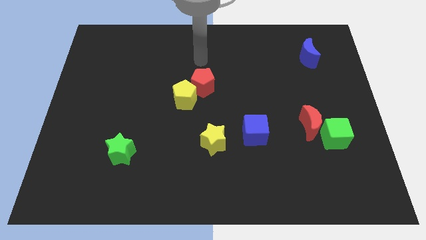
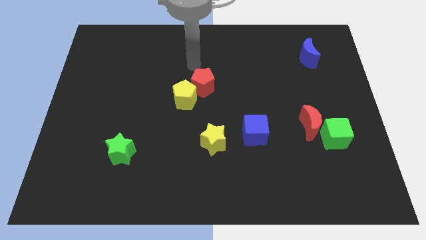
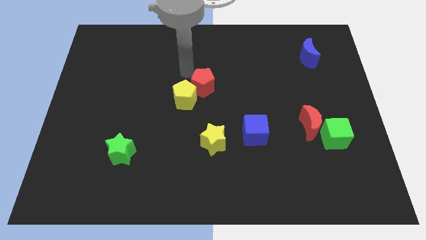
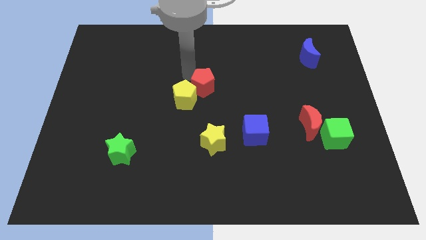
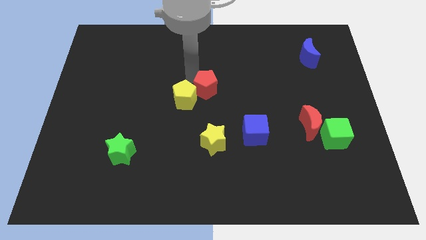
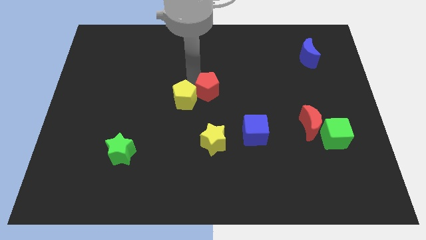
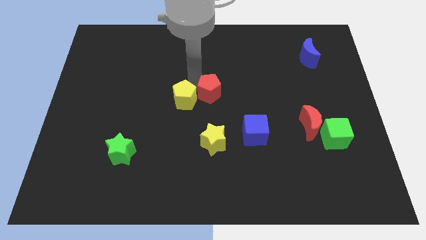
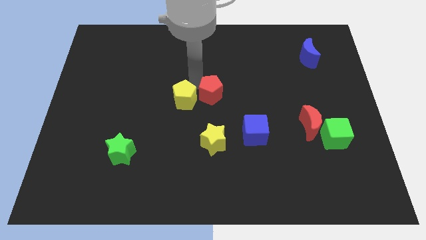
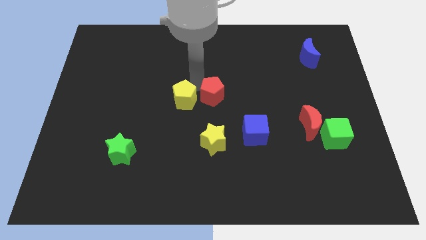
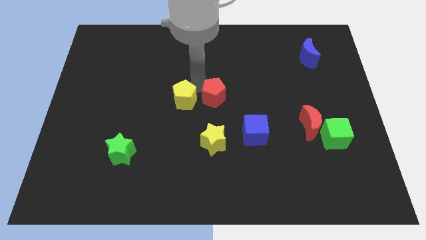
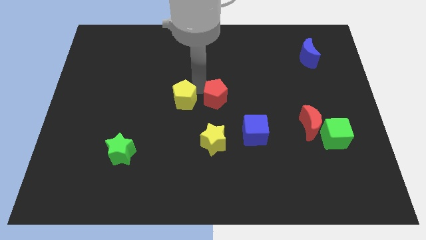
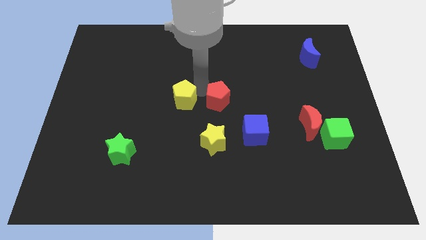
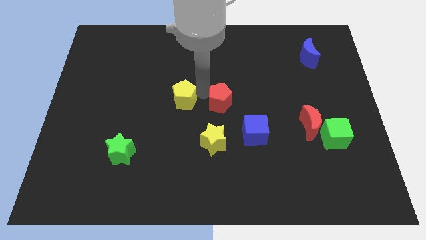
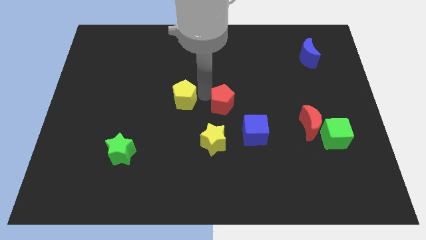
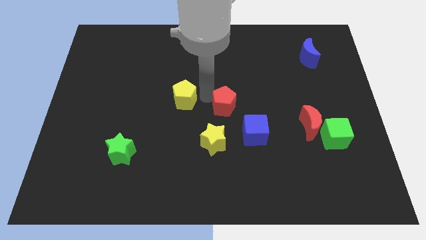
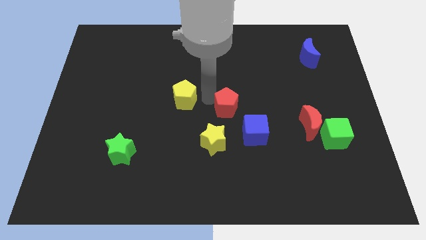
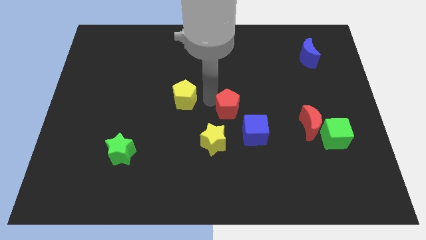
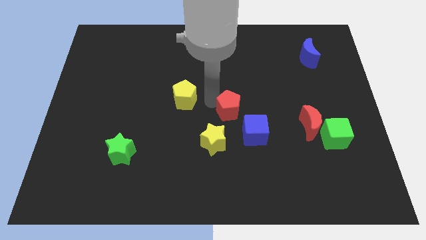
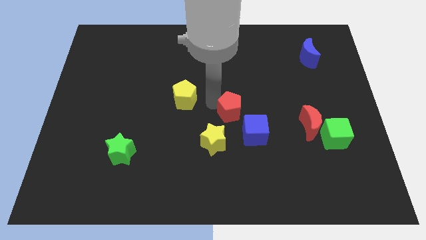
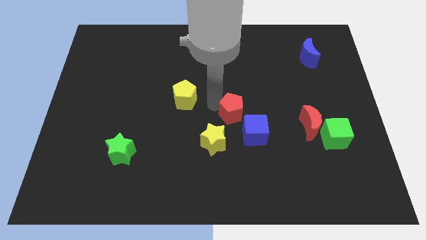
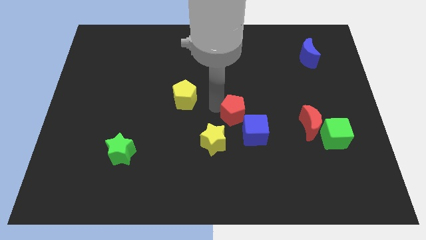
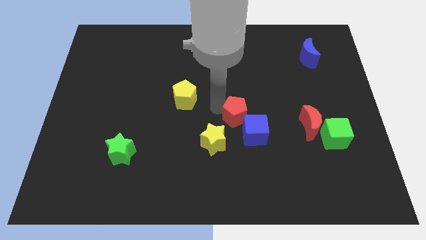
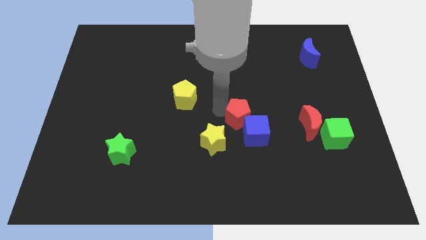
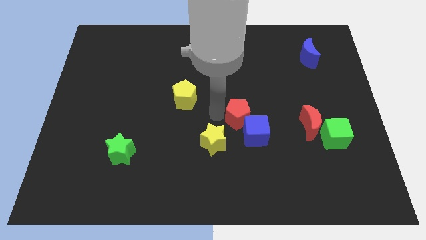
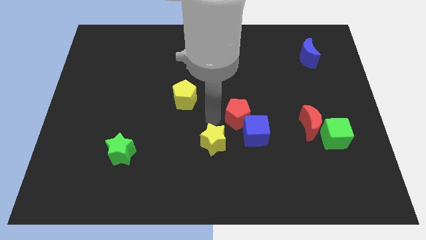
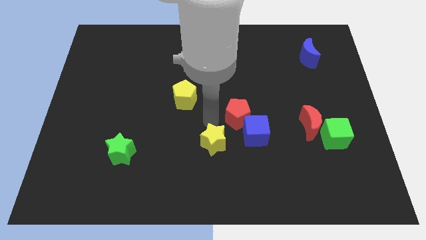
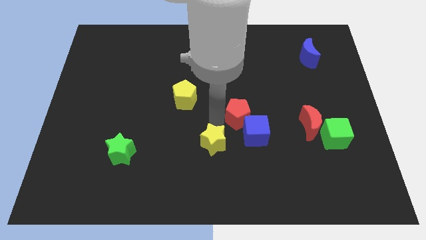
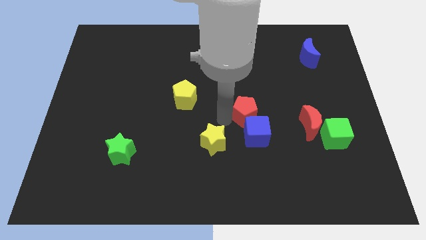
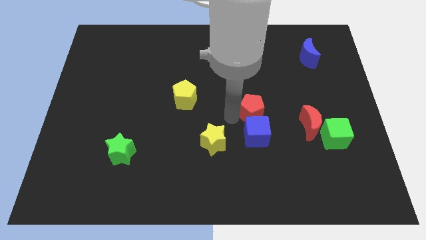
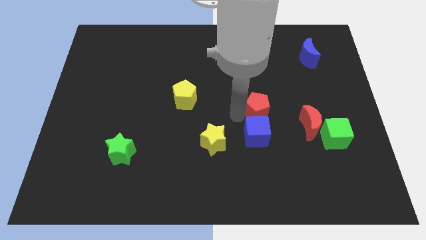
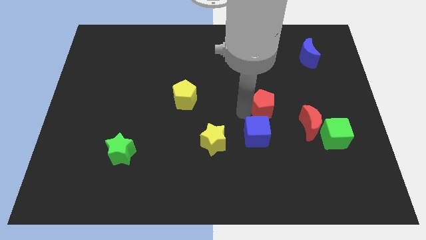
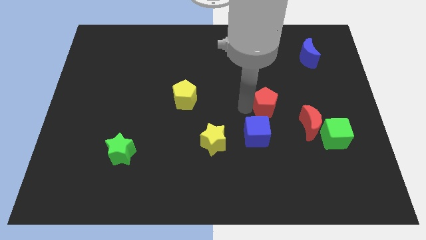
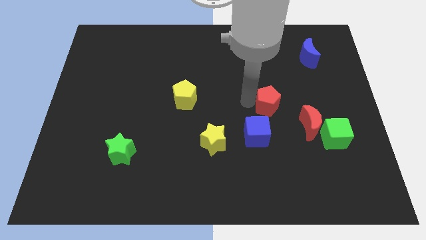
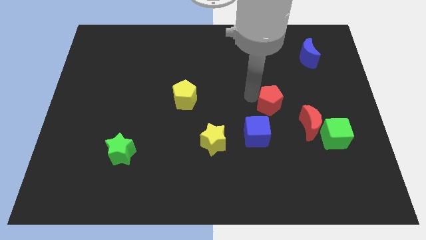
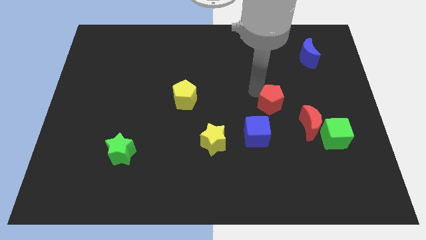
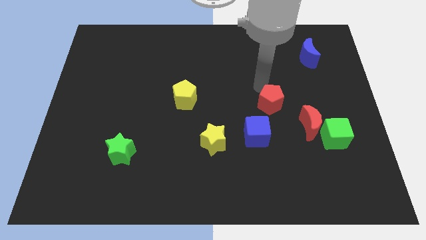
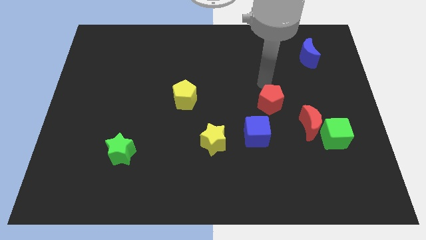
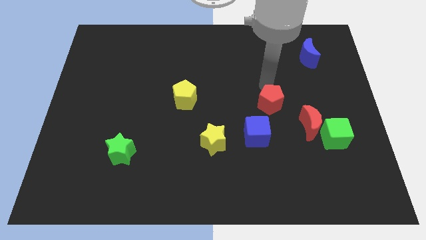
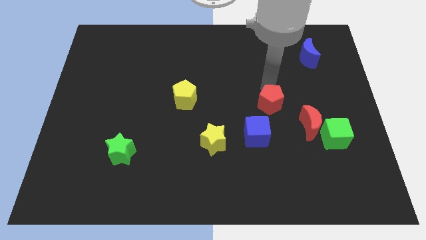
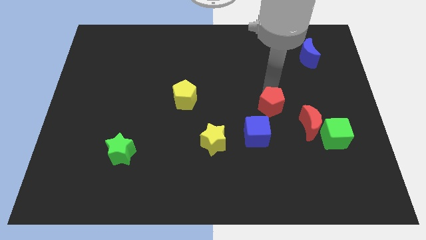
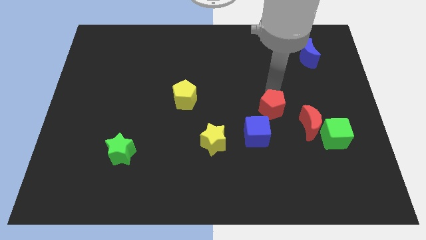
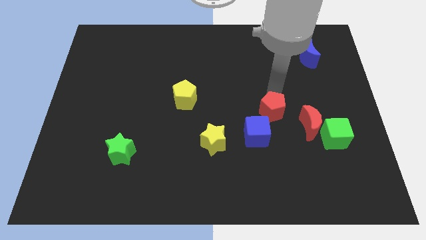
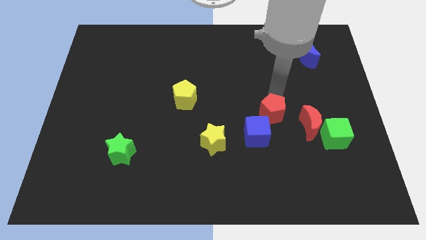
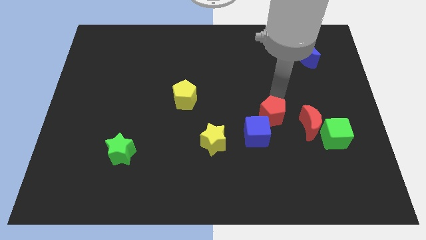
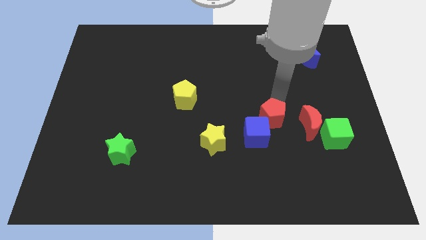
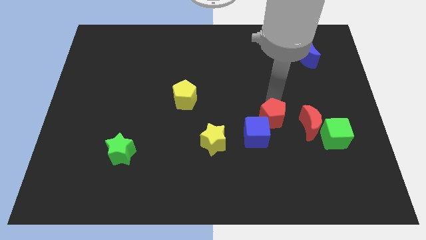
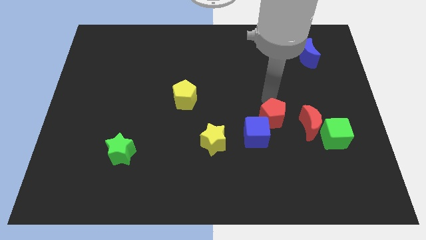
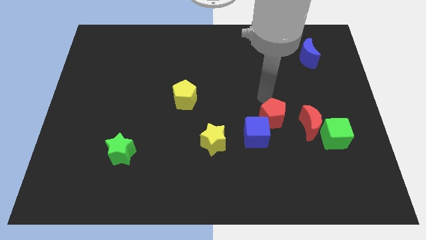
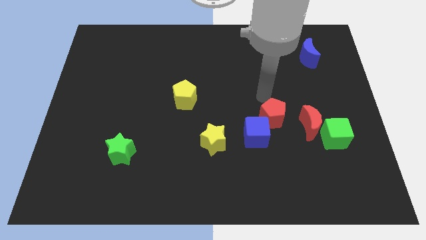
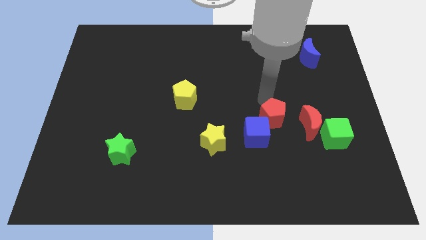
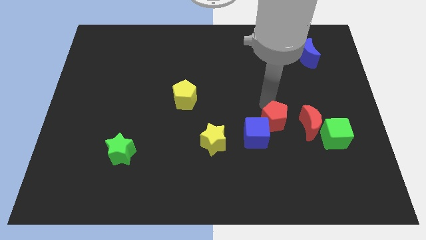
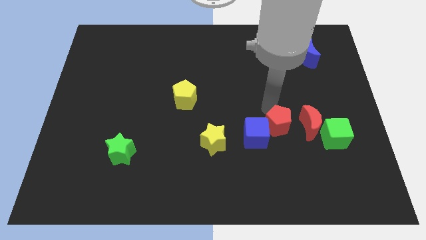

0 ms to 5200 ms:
move the red pentagon down and right diagonally

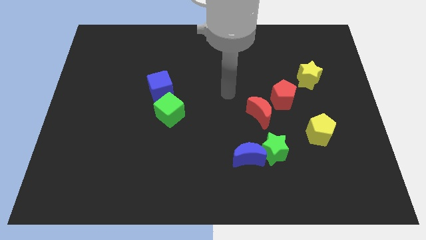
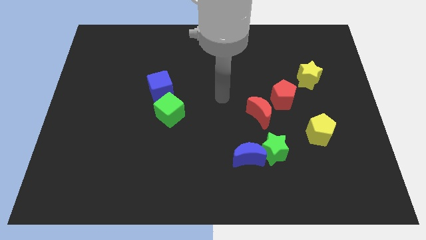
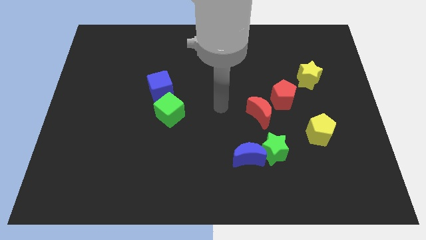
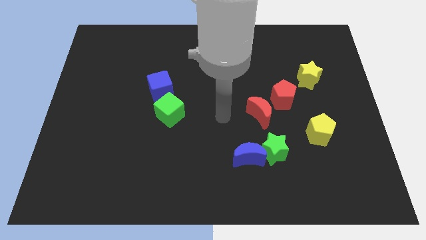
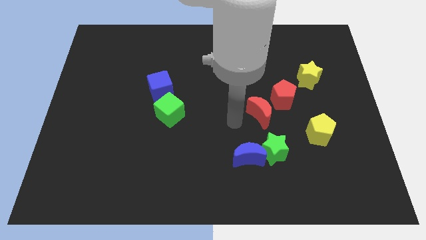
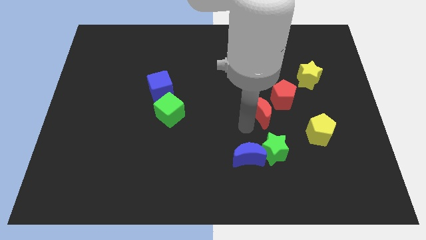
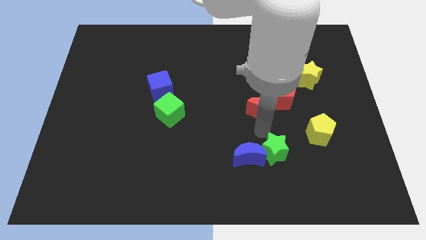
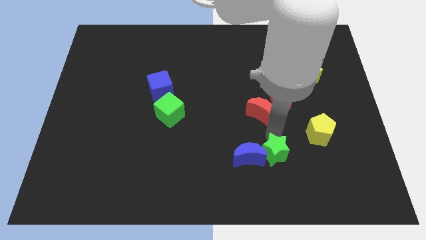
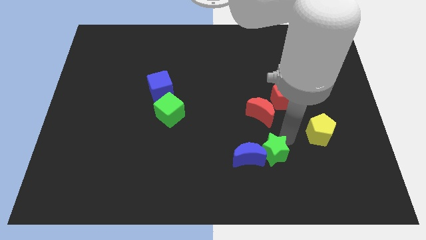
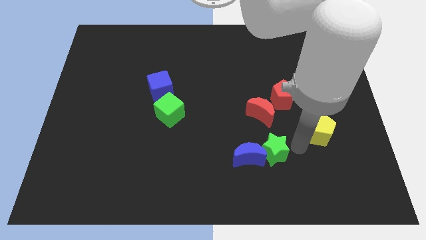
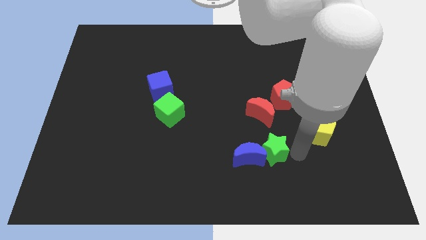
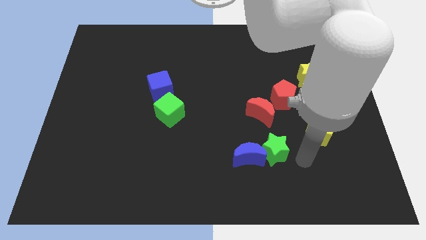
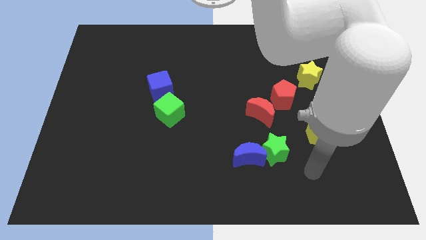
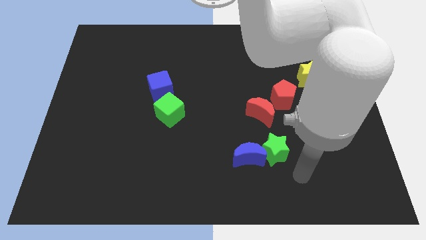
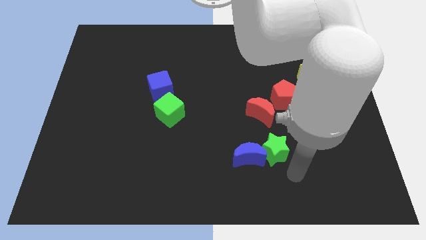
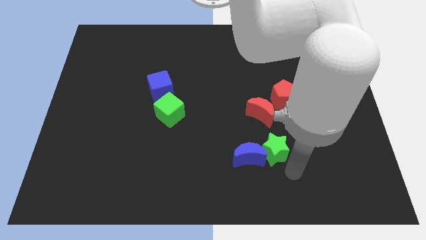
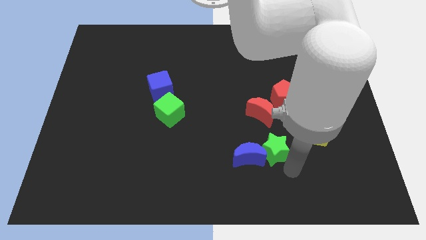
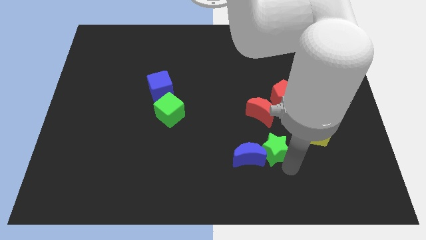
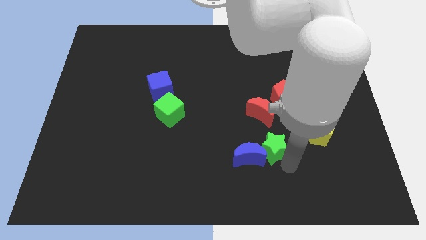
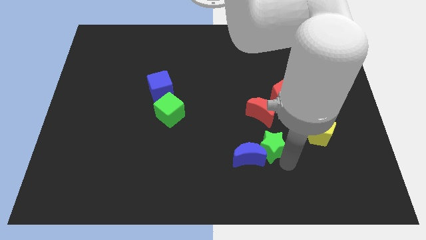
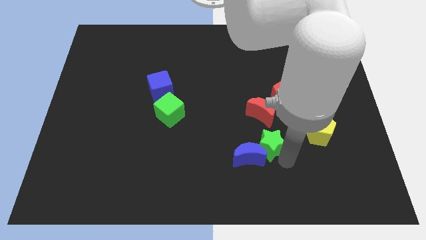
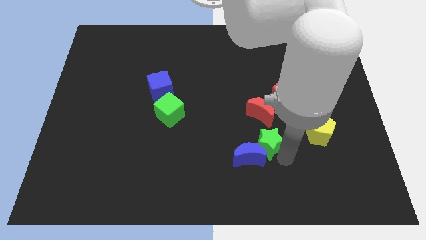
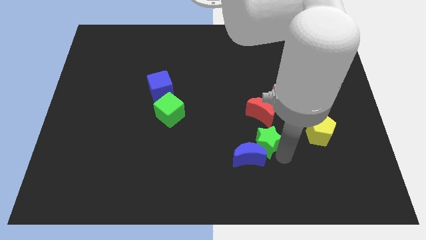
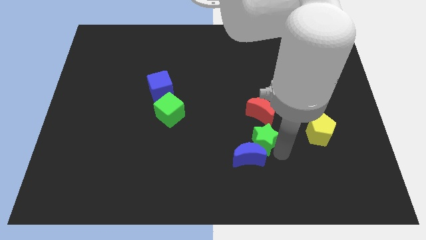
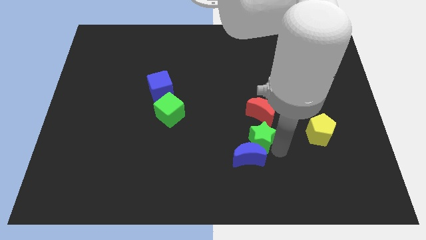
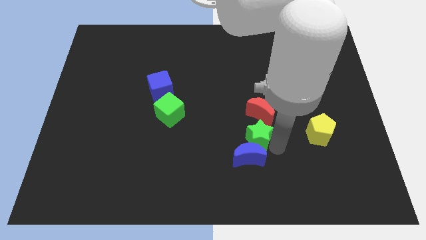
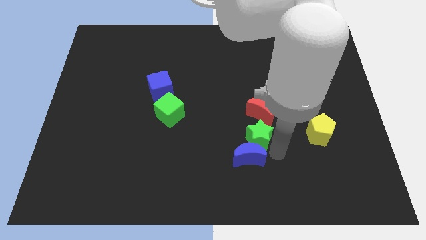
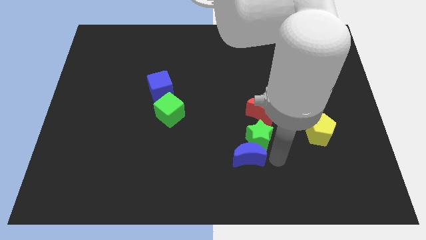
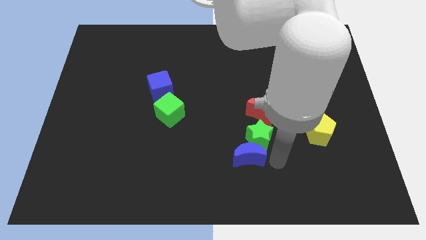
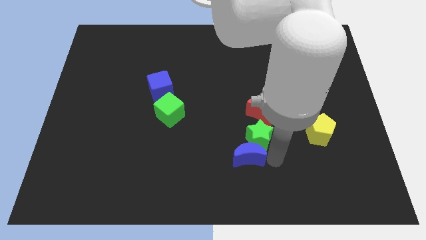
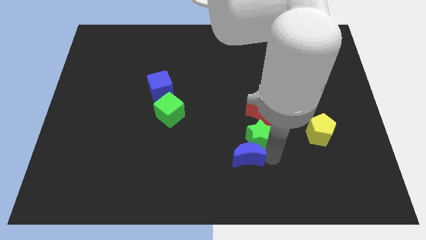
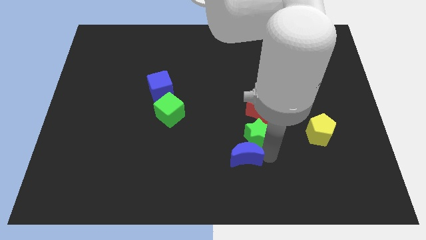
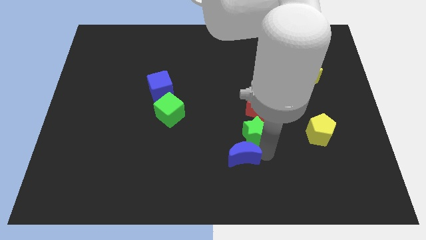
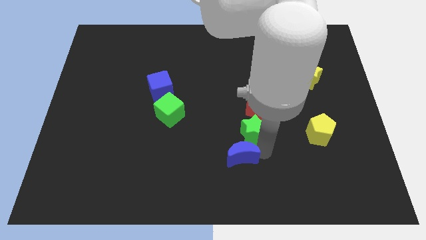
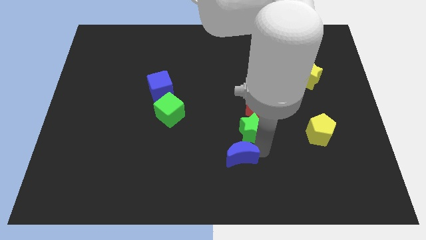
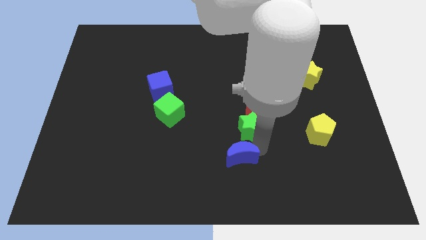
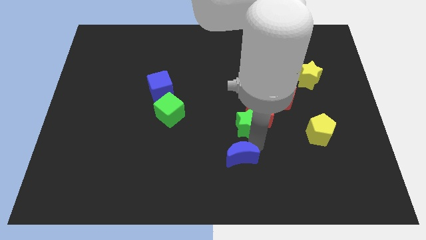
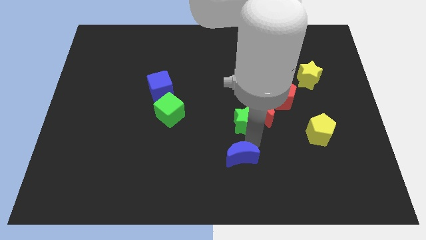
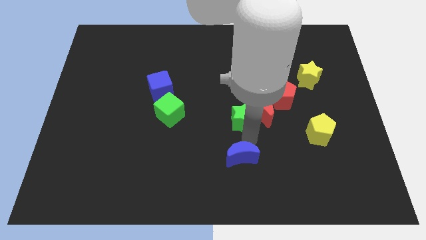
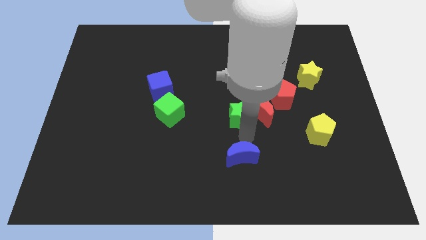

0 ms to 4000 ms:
move the green star up a little
